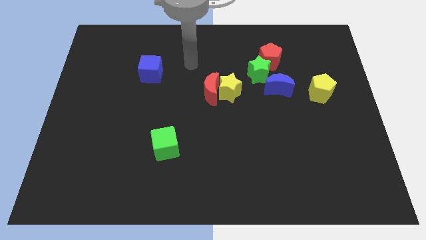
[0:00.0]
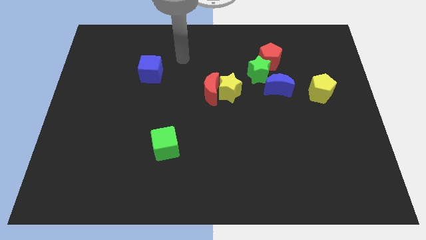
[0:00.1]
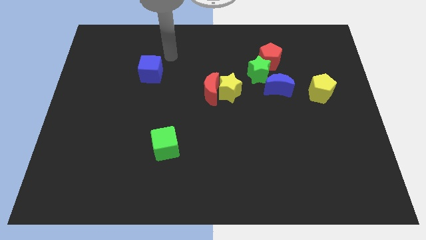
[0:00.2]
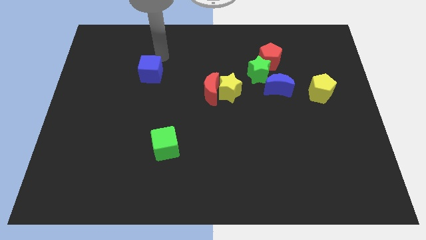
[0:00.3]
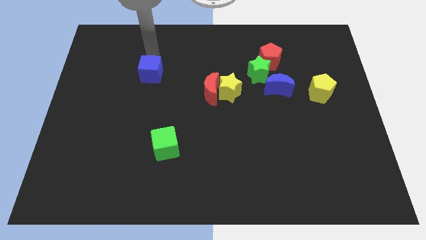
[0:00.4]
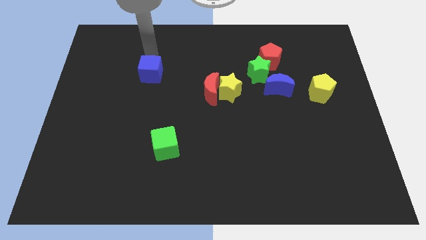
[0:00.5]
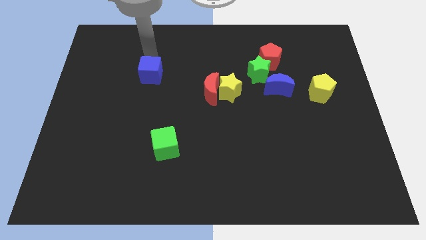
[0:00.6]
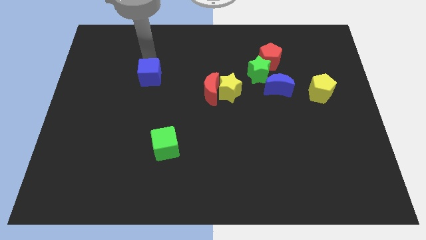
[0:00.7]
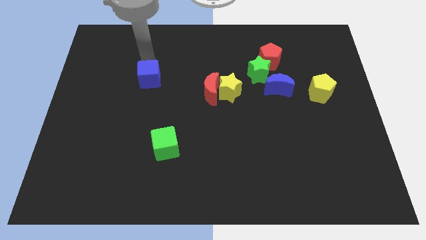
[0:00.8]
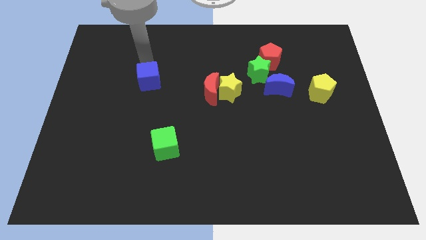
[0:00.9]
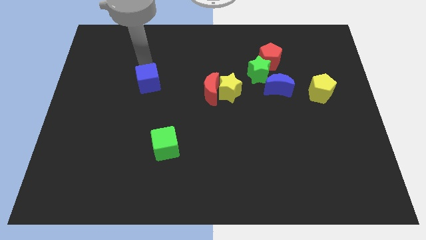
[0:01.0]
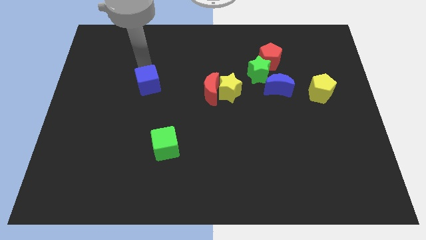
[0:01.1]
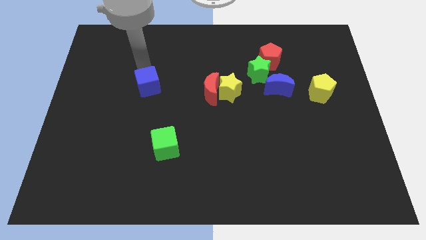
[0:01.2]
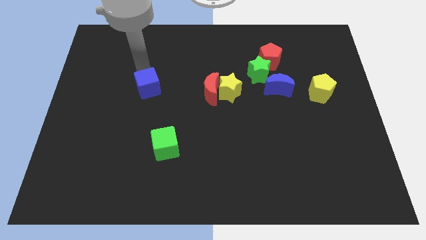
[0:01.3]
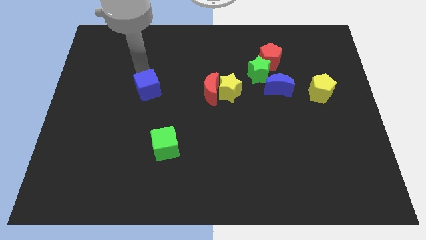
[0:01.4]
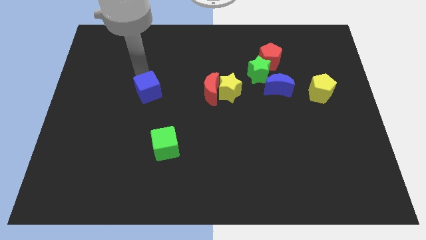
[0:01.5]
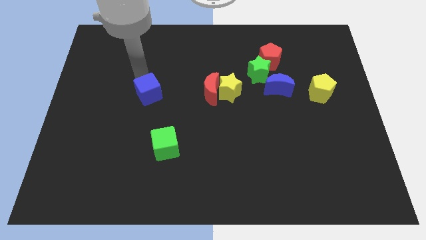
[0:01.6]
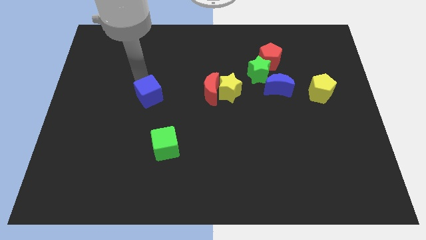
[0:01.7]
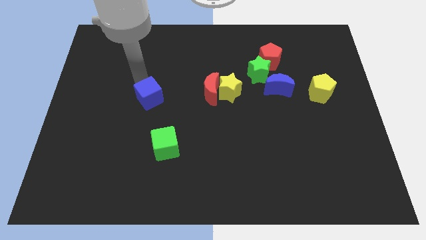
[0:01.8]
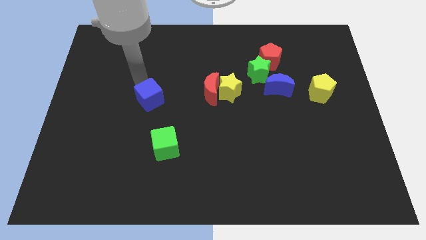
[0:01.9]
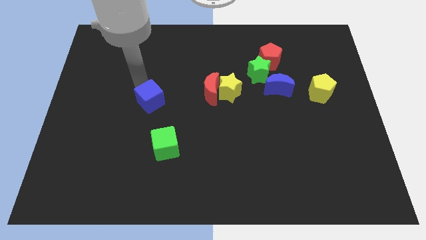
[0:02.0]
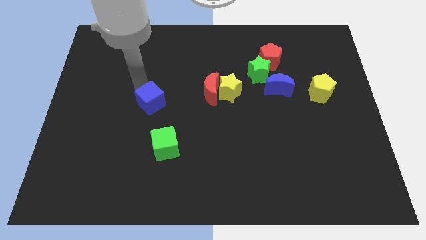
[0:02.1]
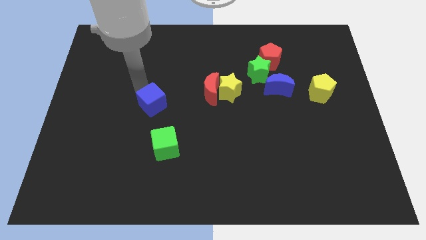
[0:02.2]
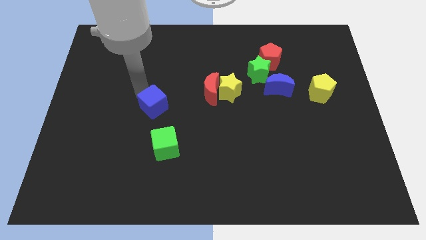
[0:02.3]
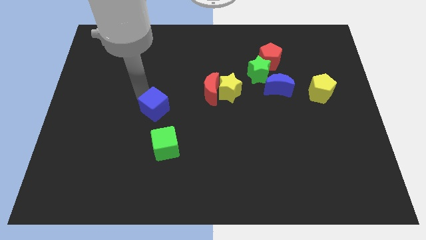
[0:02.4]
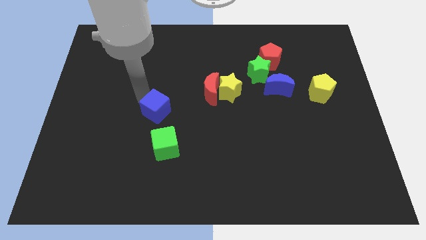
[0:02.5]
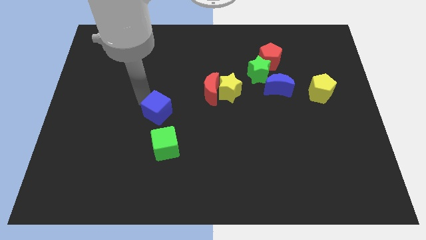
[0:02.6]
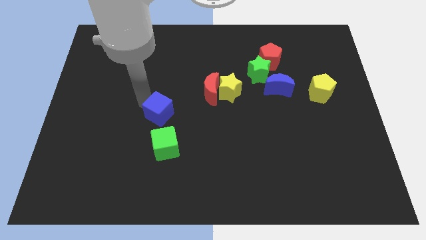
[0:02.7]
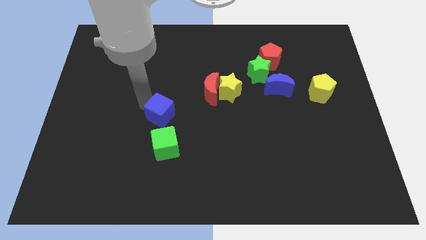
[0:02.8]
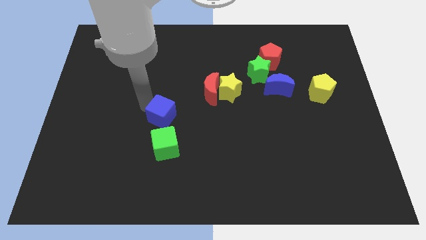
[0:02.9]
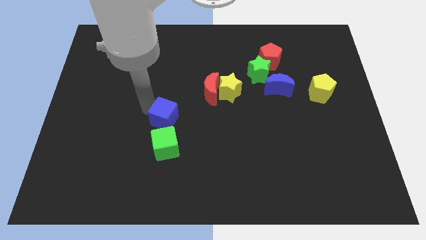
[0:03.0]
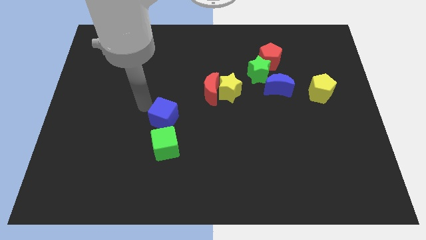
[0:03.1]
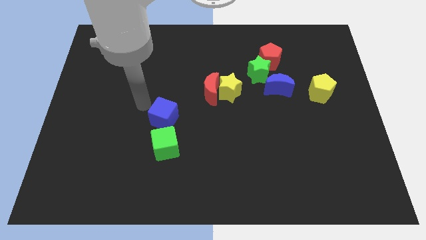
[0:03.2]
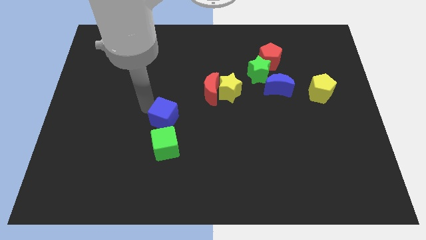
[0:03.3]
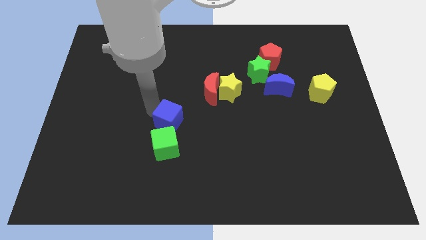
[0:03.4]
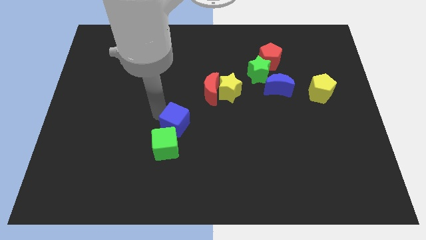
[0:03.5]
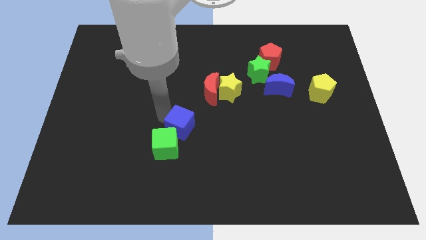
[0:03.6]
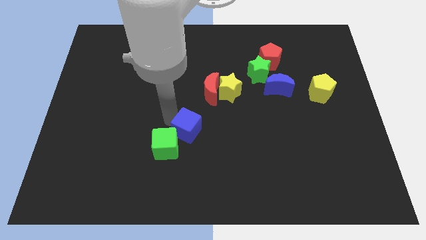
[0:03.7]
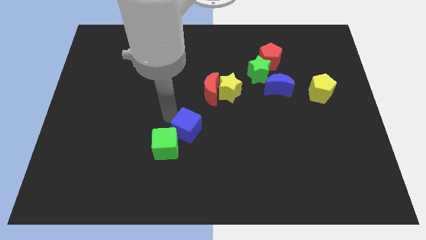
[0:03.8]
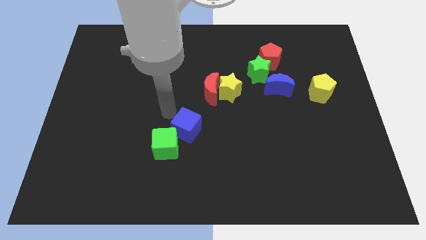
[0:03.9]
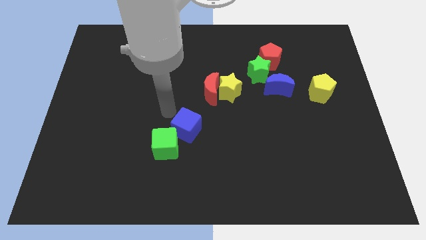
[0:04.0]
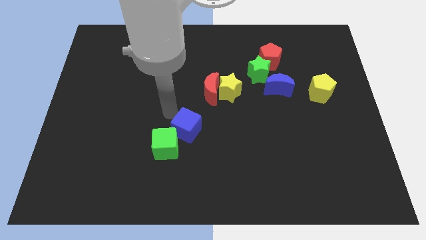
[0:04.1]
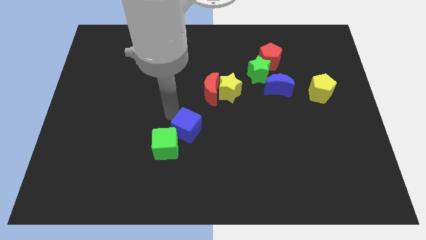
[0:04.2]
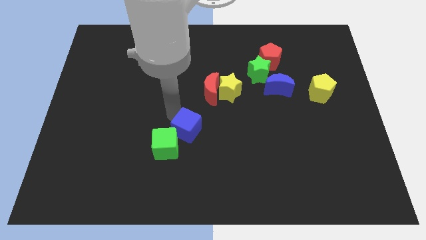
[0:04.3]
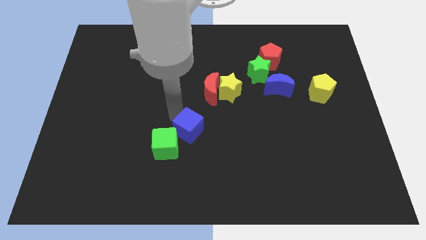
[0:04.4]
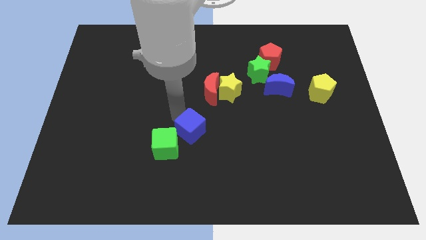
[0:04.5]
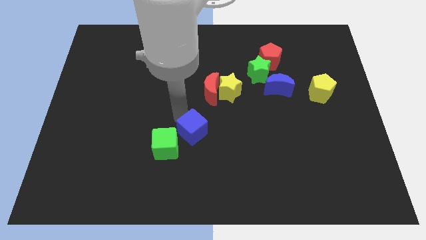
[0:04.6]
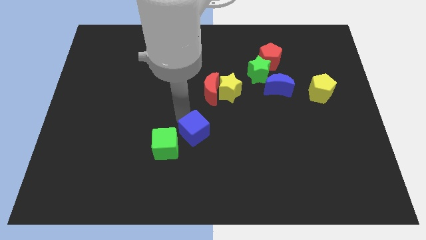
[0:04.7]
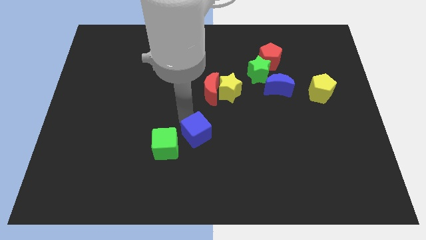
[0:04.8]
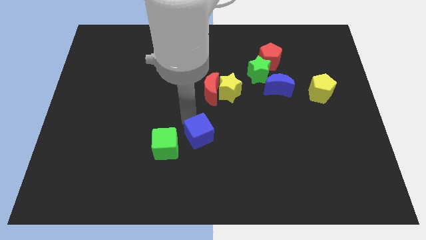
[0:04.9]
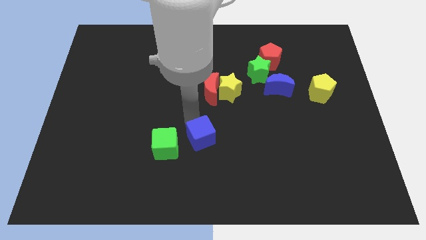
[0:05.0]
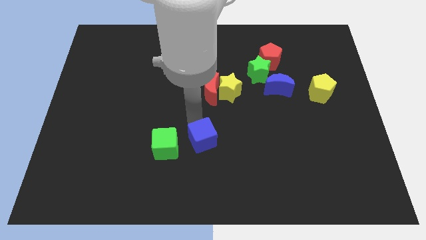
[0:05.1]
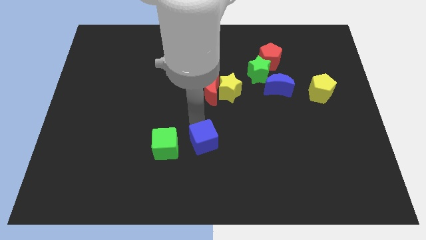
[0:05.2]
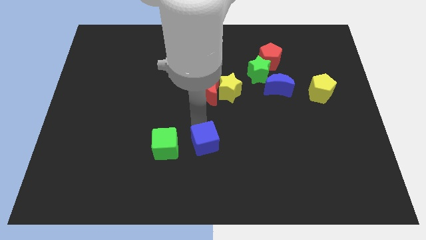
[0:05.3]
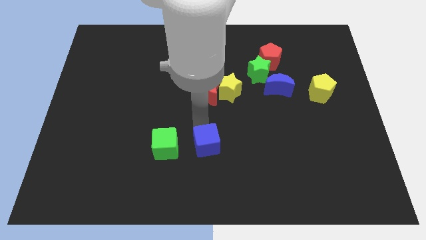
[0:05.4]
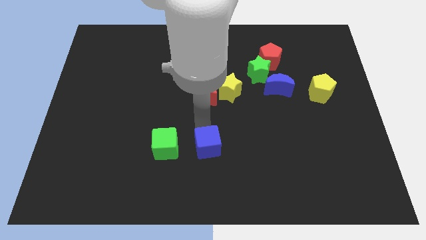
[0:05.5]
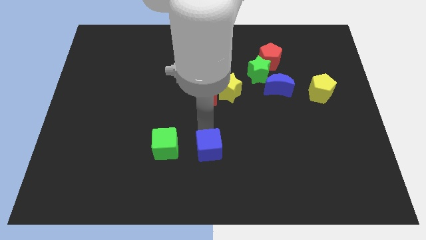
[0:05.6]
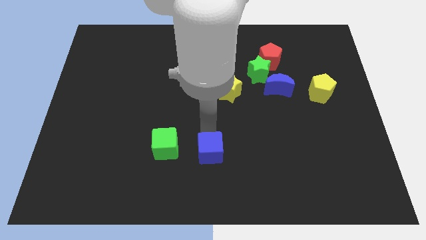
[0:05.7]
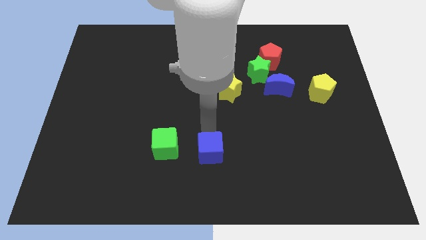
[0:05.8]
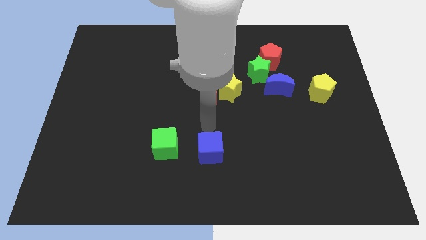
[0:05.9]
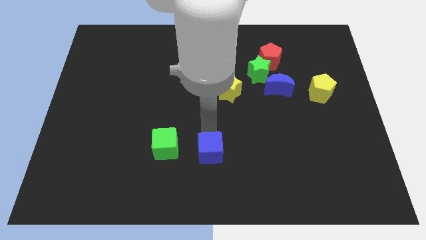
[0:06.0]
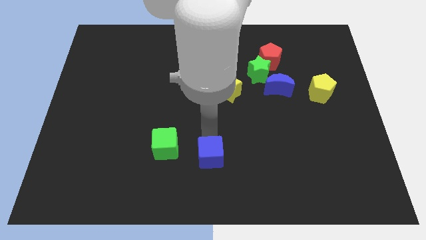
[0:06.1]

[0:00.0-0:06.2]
put the blue cube to the bottom

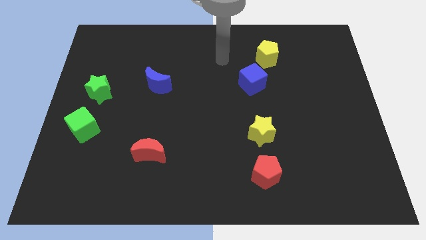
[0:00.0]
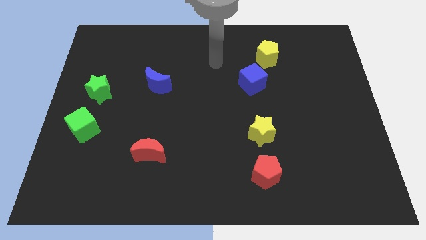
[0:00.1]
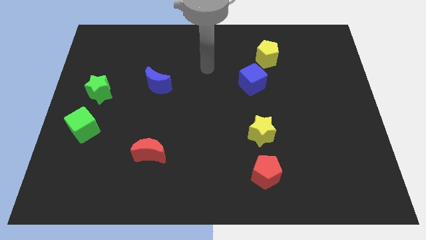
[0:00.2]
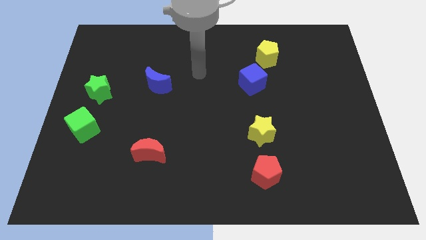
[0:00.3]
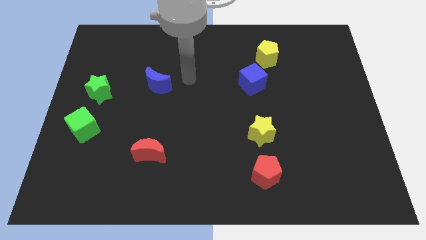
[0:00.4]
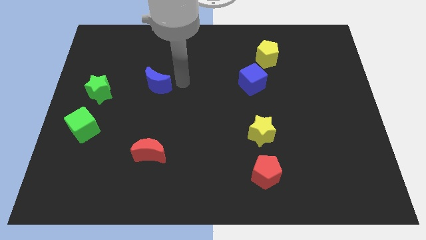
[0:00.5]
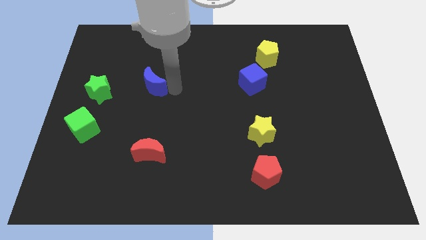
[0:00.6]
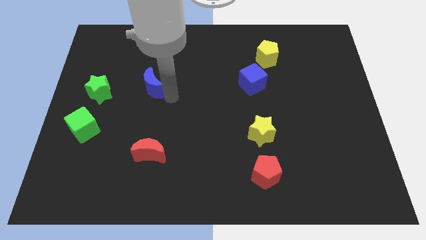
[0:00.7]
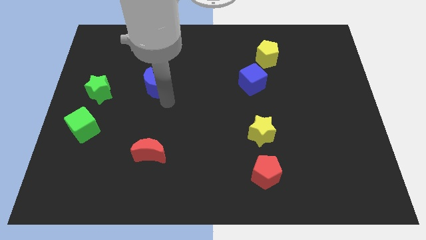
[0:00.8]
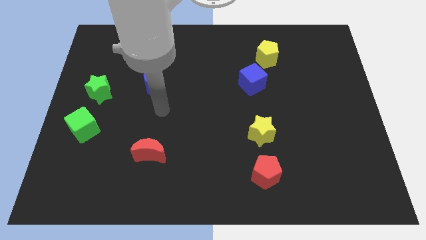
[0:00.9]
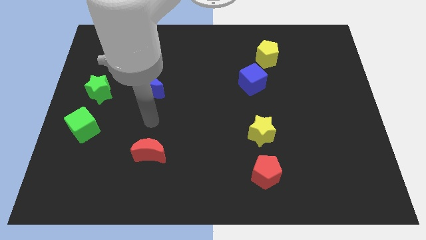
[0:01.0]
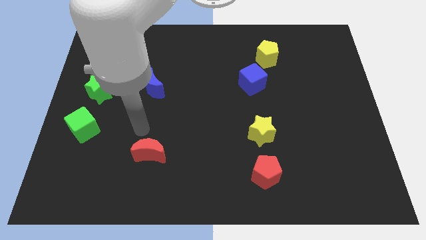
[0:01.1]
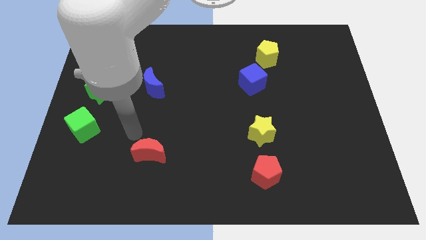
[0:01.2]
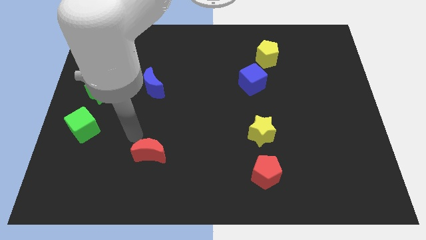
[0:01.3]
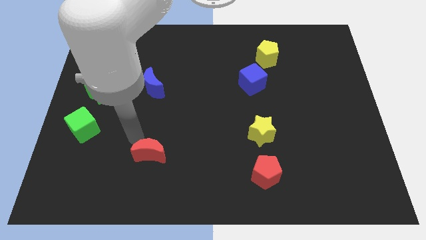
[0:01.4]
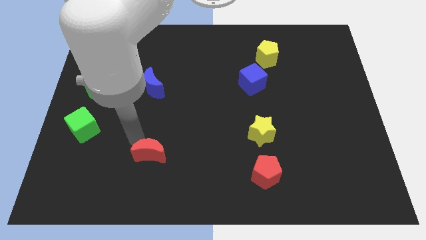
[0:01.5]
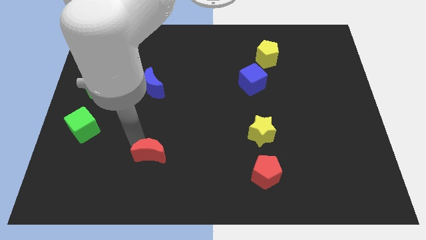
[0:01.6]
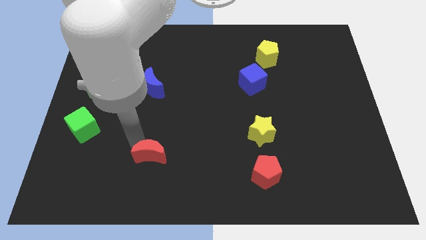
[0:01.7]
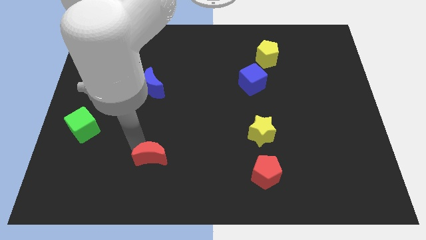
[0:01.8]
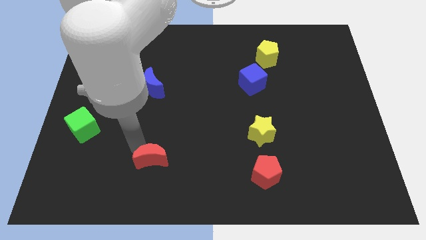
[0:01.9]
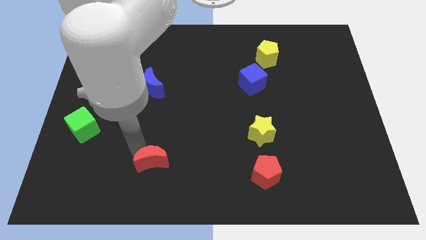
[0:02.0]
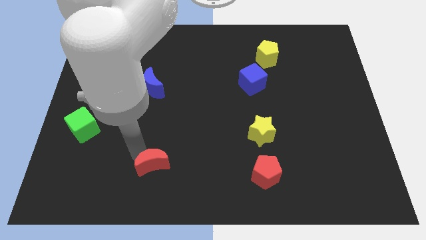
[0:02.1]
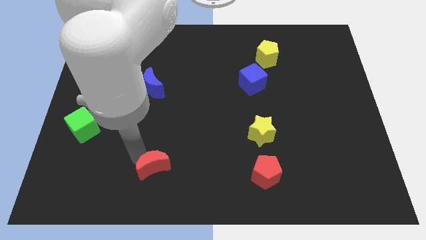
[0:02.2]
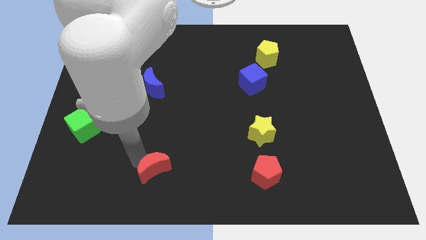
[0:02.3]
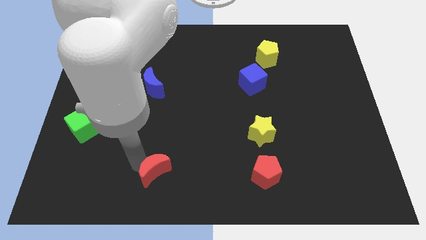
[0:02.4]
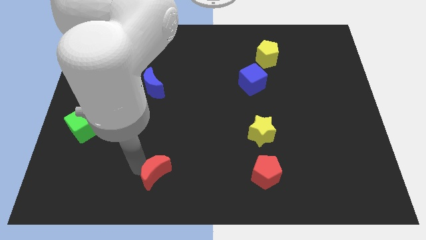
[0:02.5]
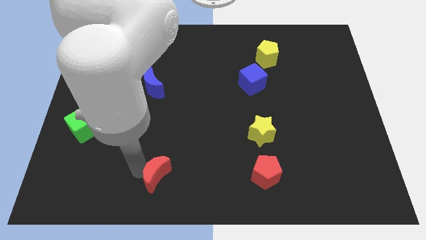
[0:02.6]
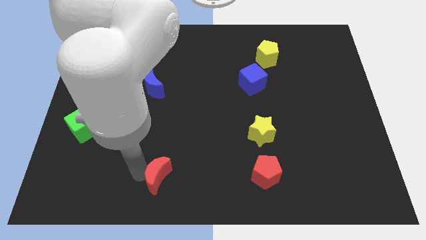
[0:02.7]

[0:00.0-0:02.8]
put the red moon to the bottom
